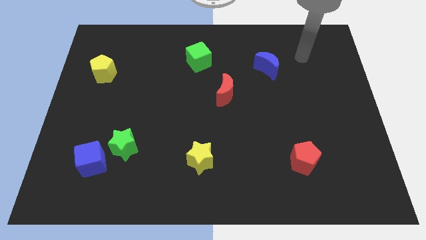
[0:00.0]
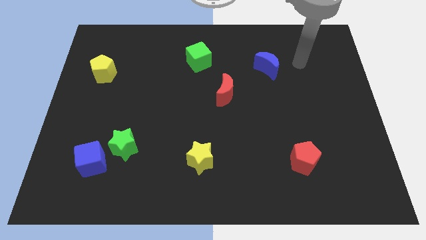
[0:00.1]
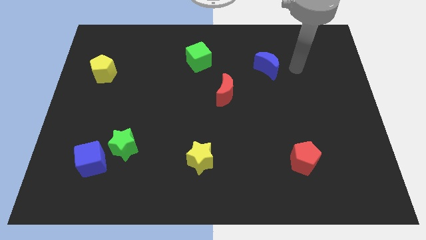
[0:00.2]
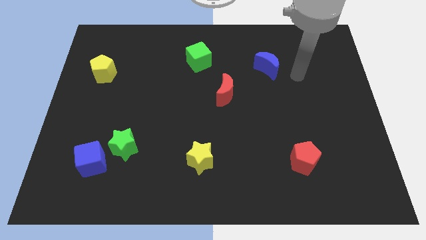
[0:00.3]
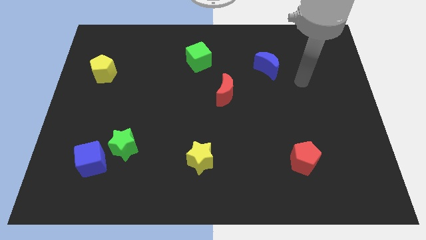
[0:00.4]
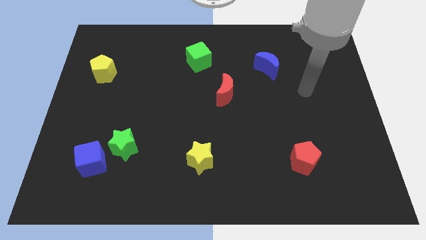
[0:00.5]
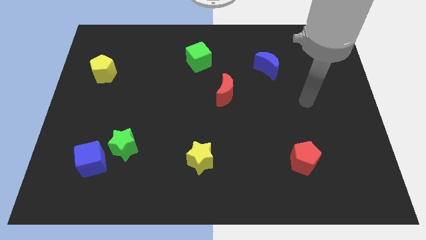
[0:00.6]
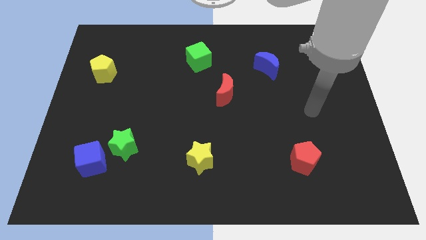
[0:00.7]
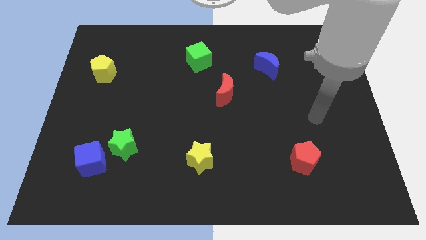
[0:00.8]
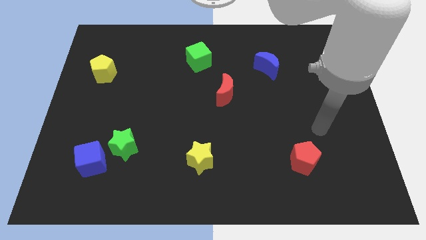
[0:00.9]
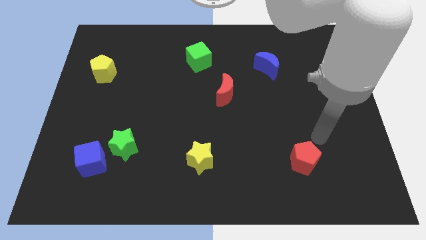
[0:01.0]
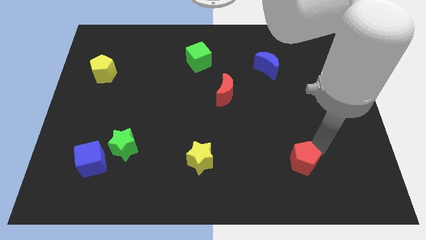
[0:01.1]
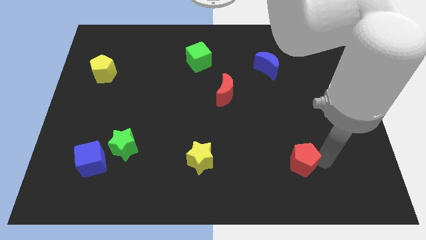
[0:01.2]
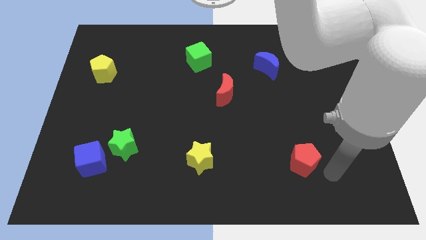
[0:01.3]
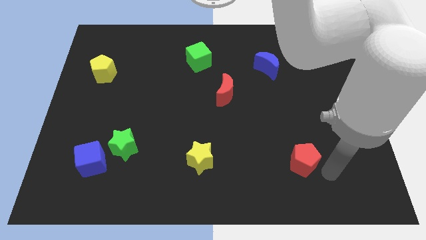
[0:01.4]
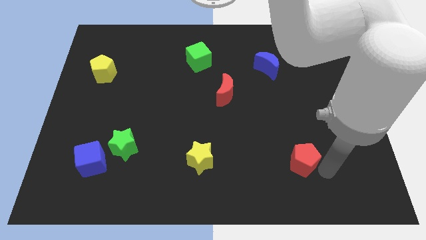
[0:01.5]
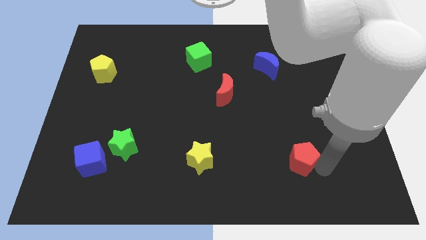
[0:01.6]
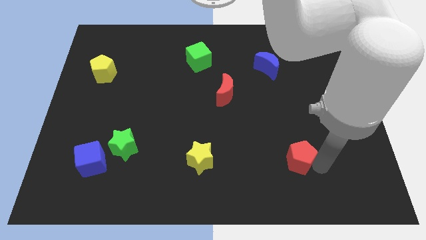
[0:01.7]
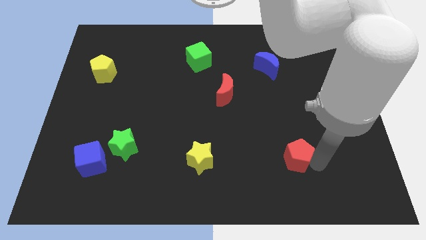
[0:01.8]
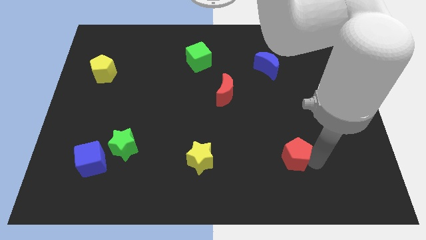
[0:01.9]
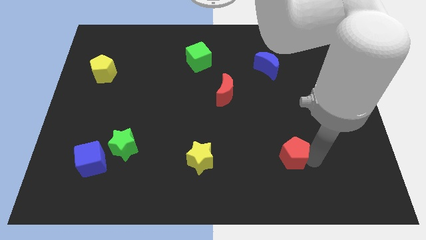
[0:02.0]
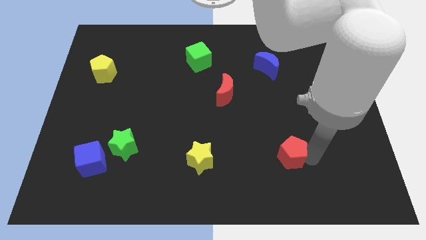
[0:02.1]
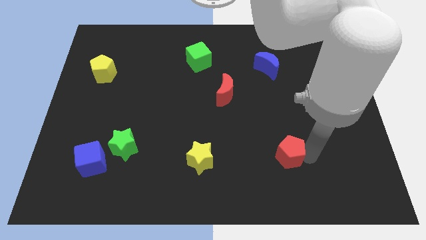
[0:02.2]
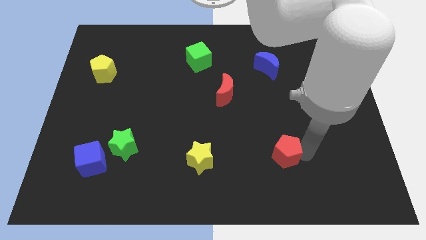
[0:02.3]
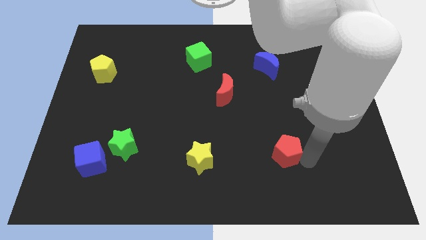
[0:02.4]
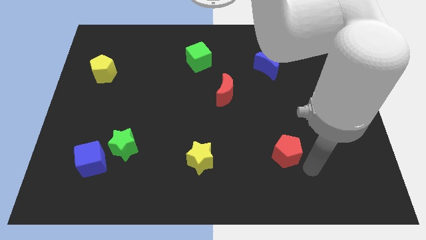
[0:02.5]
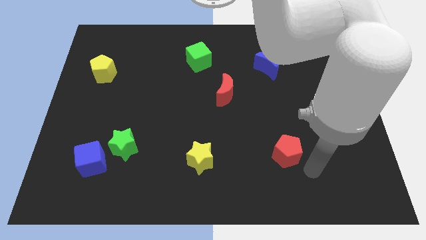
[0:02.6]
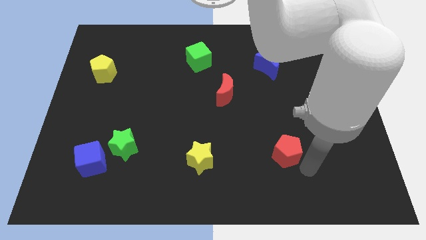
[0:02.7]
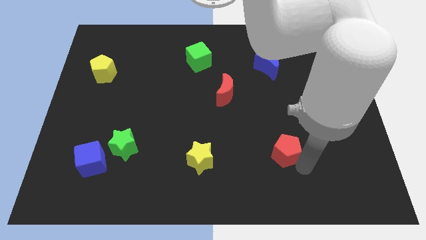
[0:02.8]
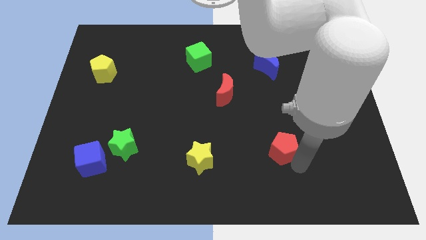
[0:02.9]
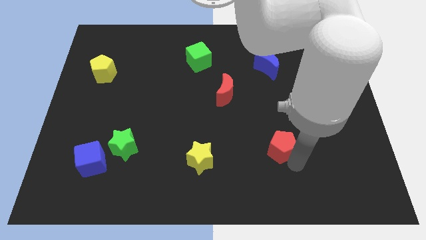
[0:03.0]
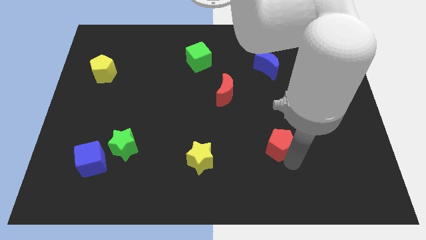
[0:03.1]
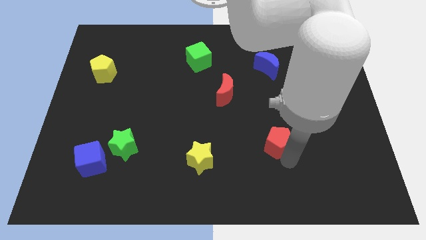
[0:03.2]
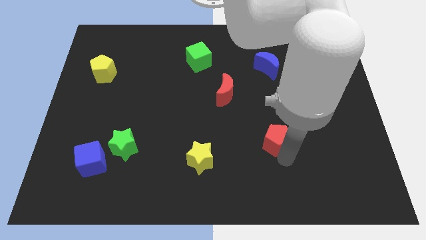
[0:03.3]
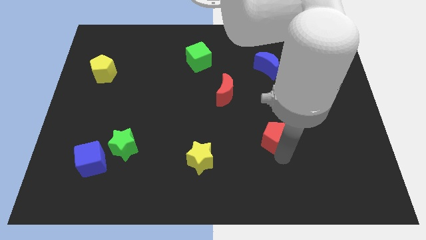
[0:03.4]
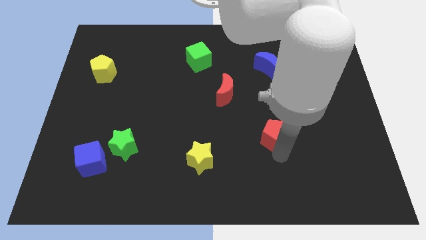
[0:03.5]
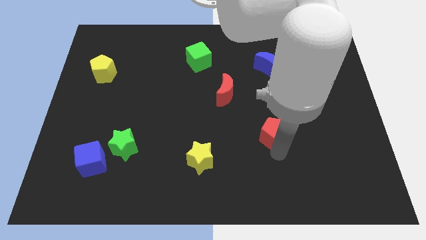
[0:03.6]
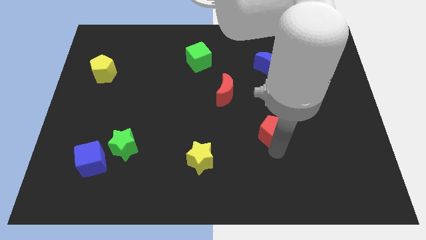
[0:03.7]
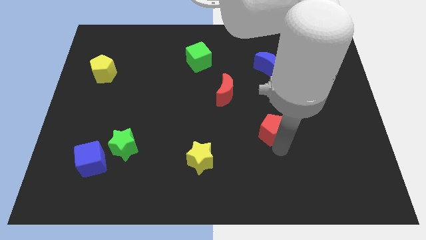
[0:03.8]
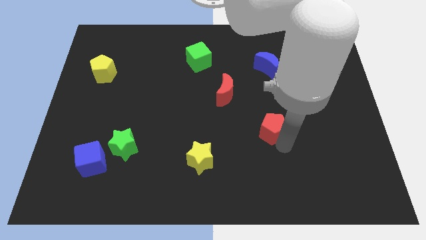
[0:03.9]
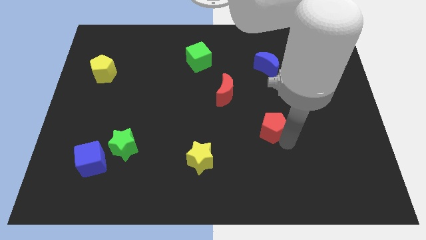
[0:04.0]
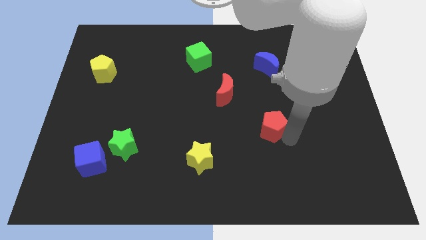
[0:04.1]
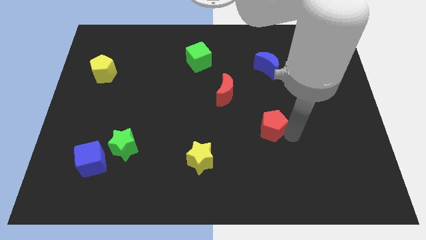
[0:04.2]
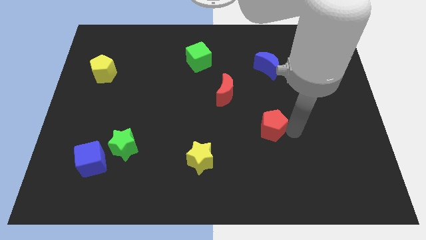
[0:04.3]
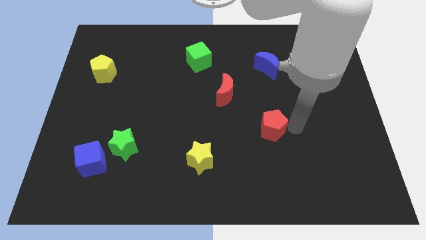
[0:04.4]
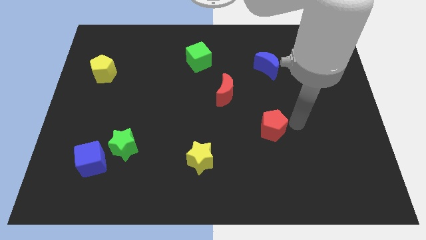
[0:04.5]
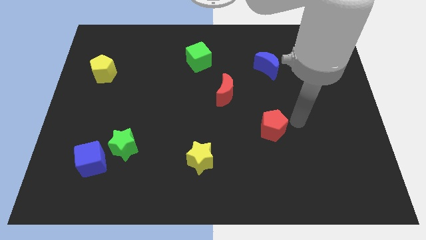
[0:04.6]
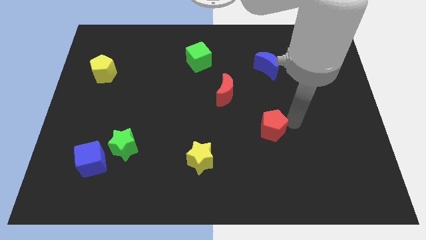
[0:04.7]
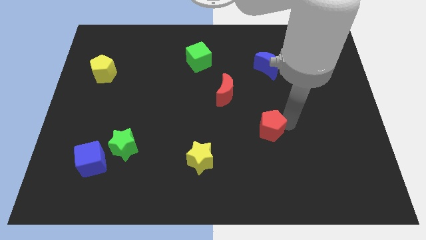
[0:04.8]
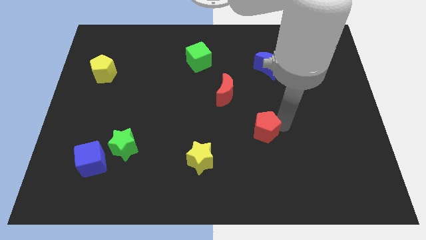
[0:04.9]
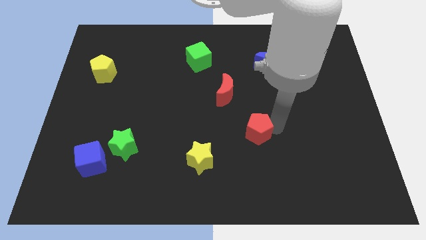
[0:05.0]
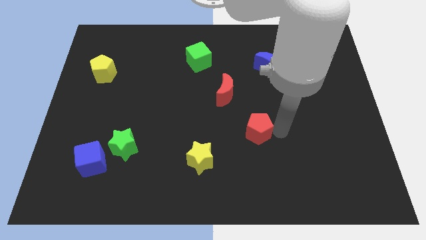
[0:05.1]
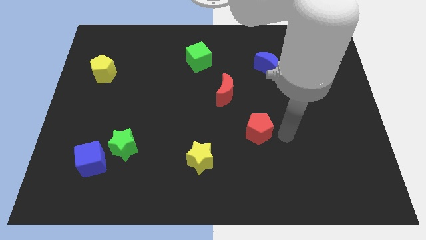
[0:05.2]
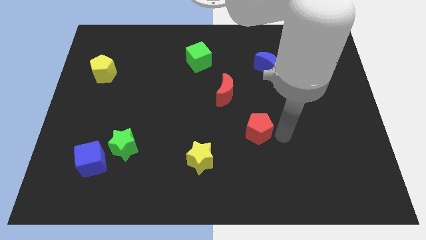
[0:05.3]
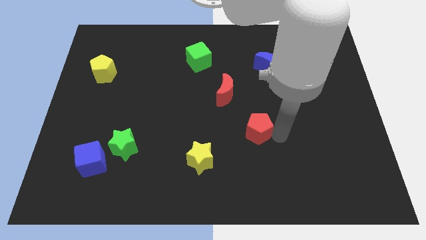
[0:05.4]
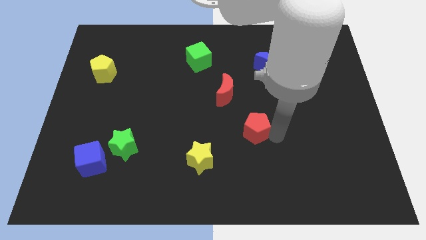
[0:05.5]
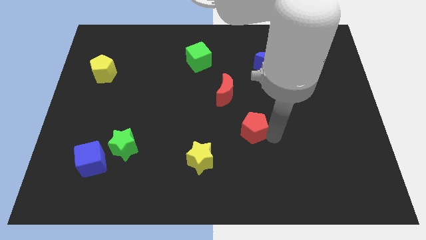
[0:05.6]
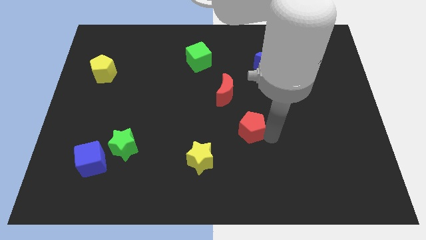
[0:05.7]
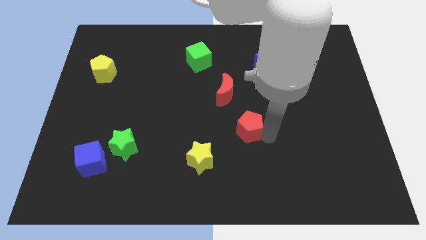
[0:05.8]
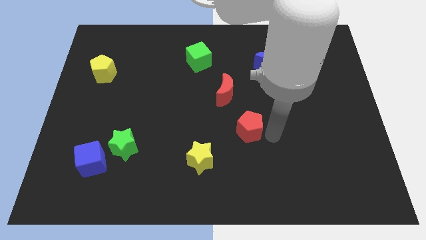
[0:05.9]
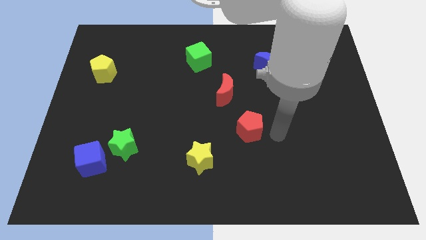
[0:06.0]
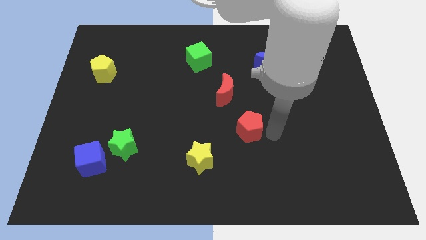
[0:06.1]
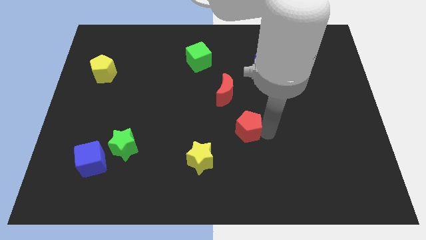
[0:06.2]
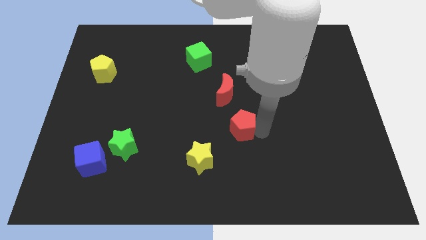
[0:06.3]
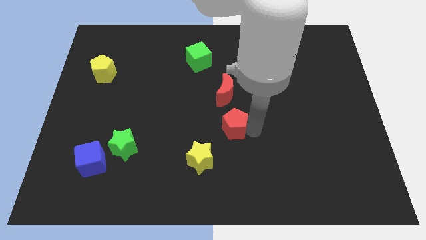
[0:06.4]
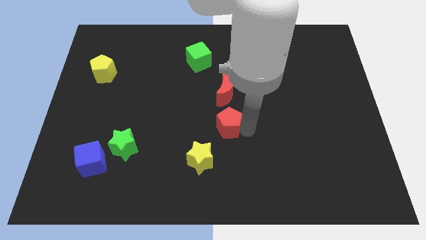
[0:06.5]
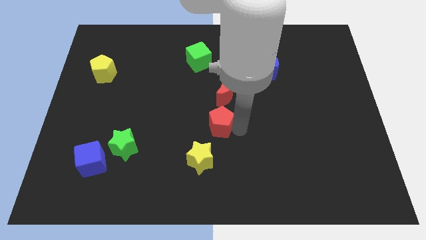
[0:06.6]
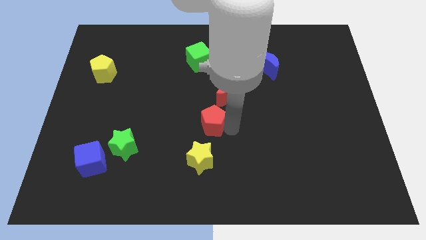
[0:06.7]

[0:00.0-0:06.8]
put the red pentagon to the bottom left side of the red moon

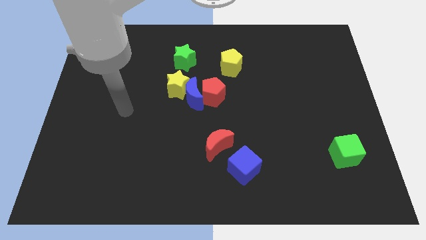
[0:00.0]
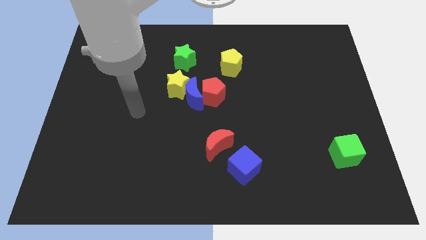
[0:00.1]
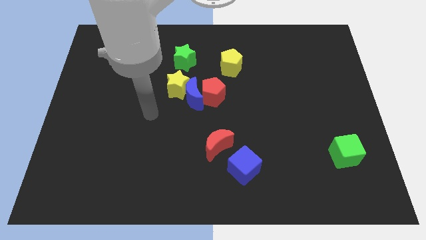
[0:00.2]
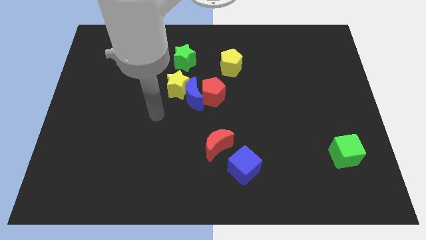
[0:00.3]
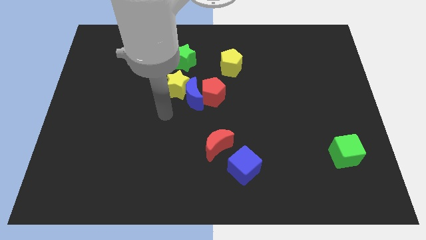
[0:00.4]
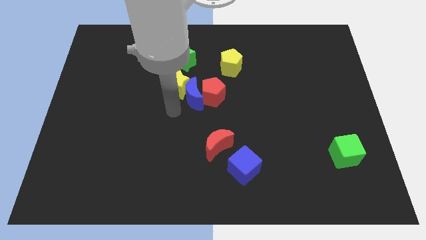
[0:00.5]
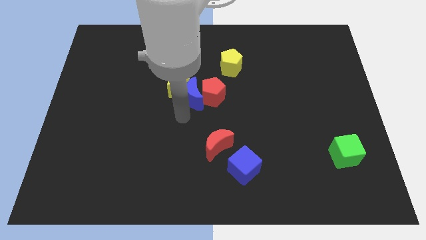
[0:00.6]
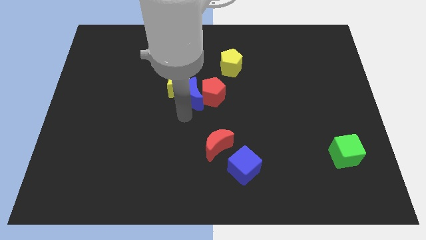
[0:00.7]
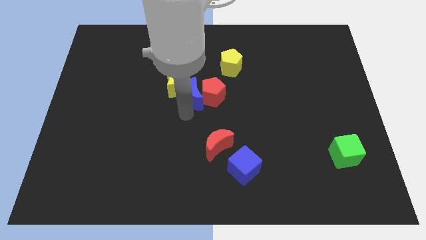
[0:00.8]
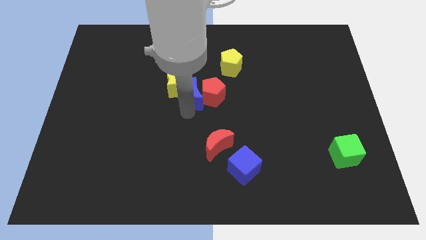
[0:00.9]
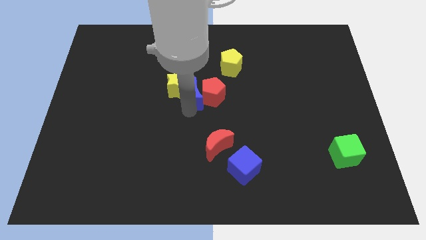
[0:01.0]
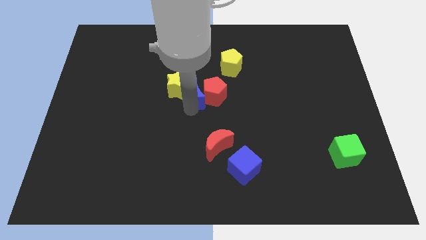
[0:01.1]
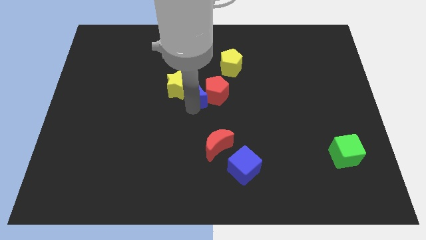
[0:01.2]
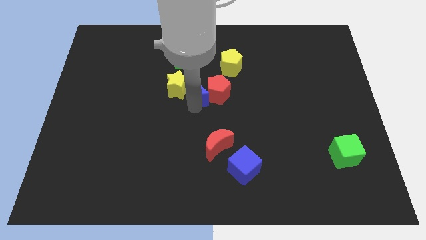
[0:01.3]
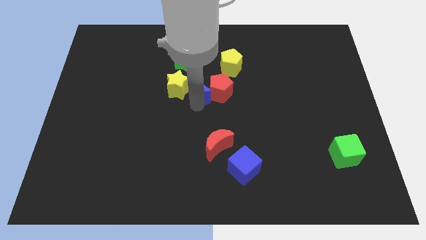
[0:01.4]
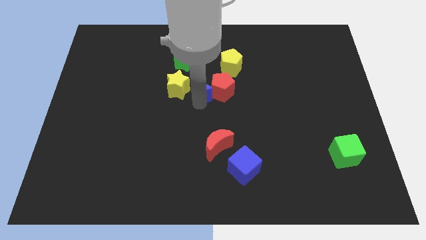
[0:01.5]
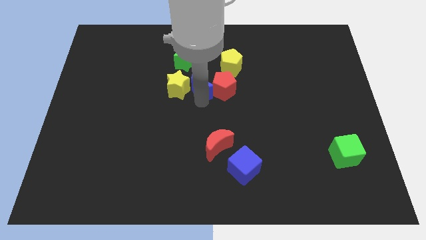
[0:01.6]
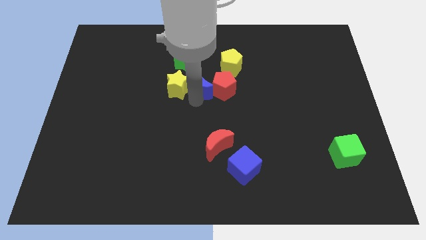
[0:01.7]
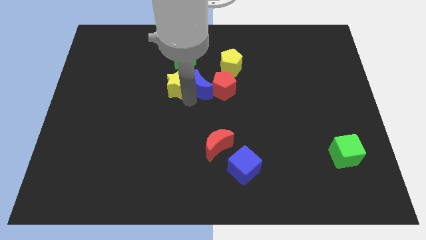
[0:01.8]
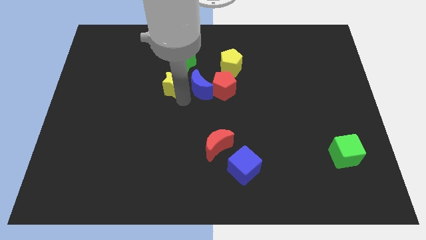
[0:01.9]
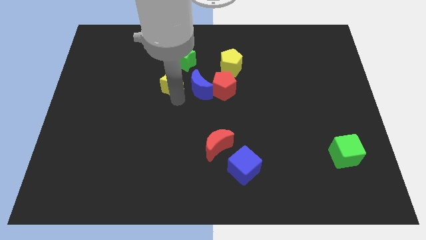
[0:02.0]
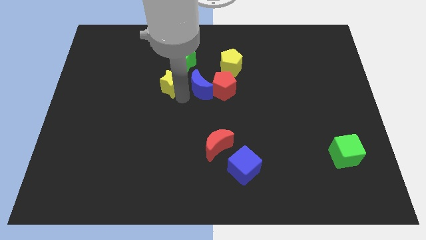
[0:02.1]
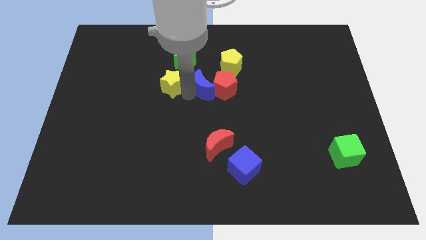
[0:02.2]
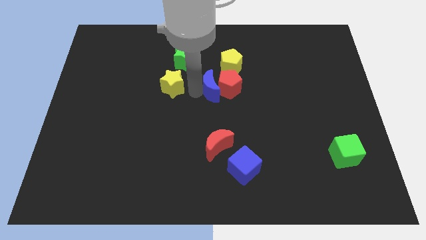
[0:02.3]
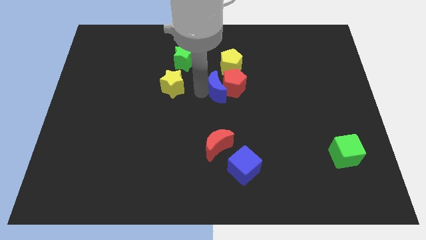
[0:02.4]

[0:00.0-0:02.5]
put the blue moon to the bottom side of the yellow pentagon
